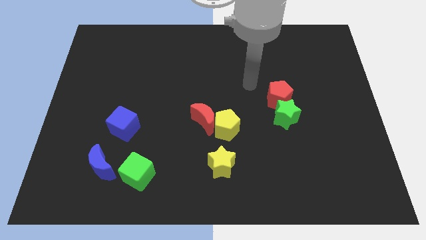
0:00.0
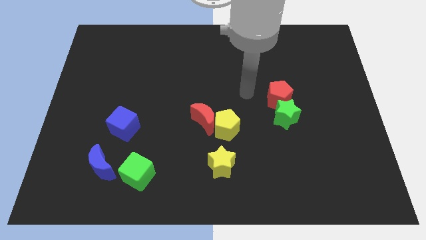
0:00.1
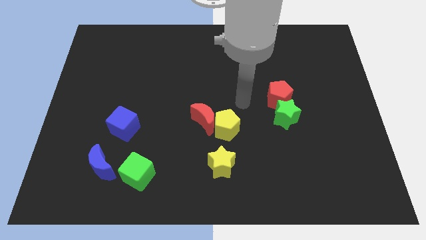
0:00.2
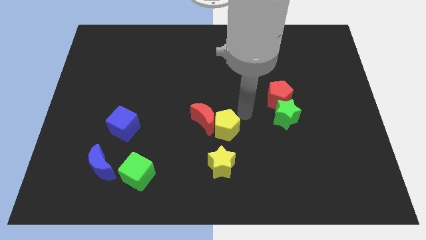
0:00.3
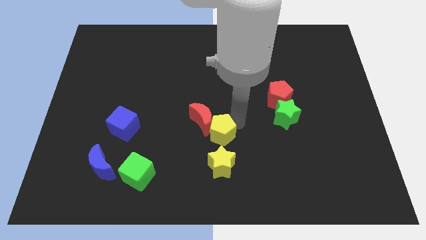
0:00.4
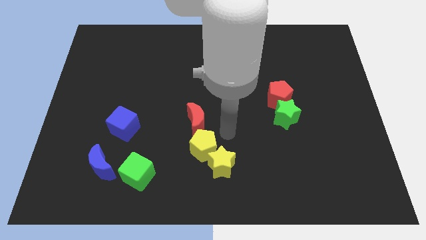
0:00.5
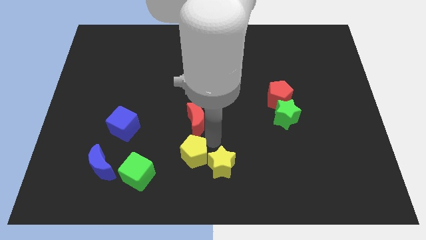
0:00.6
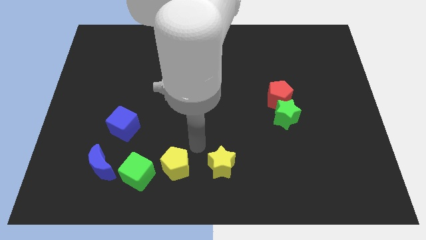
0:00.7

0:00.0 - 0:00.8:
move the red moon away from the yellow pentagon

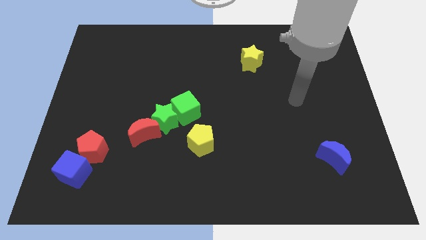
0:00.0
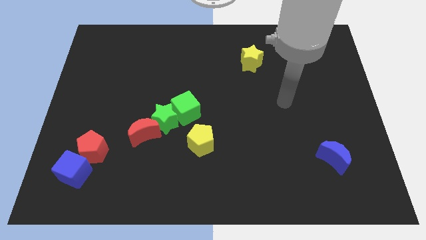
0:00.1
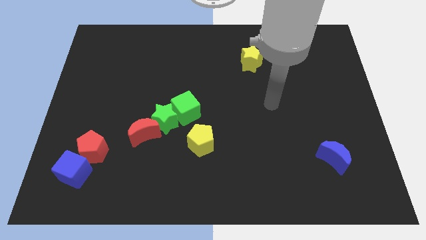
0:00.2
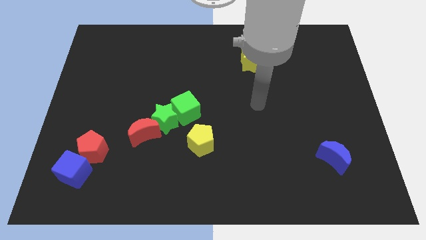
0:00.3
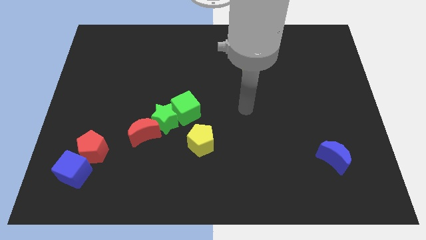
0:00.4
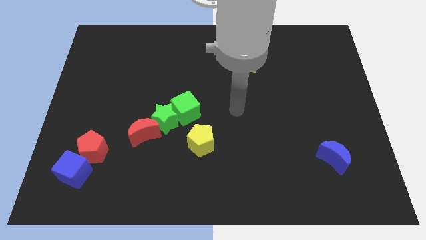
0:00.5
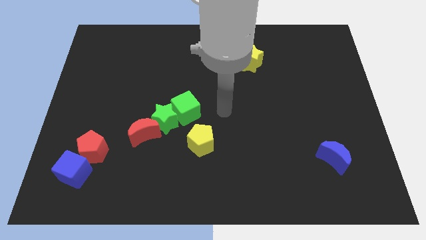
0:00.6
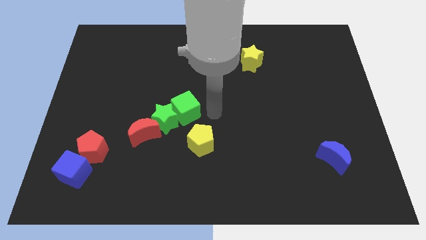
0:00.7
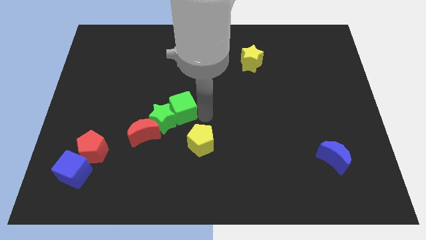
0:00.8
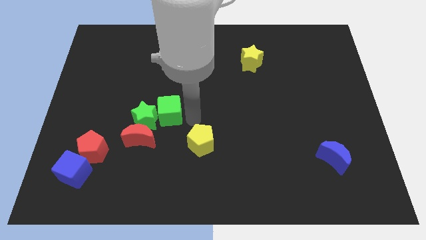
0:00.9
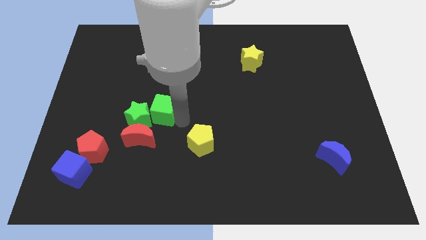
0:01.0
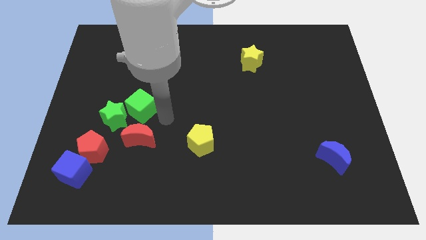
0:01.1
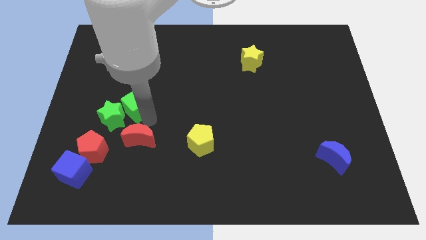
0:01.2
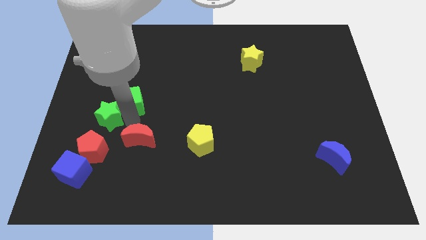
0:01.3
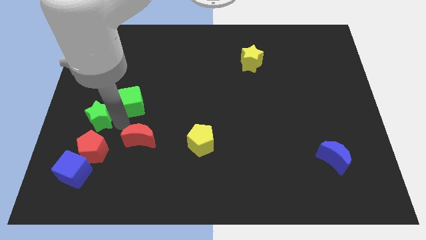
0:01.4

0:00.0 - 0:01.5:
separate the red moon from the green star

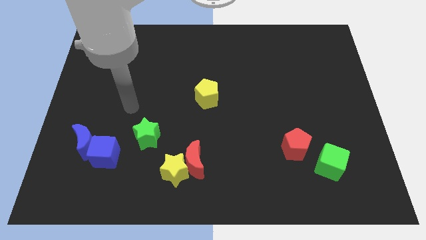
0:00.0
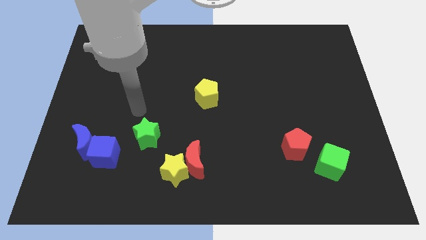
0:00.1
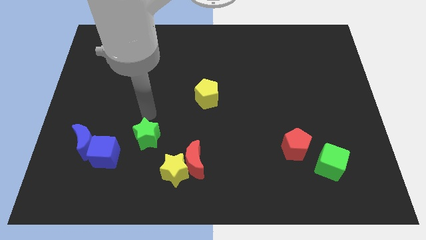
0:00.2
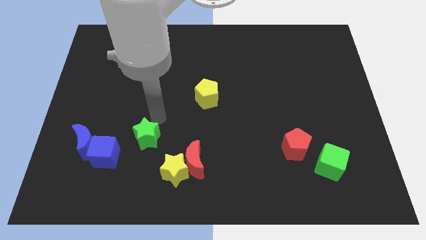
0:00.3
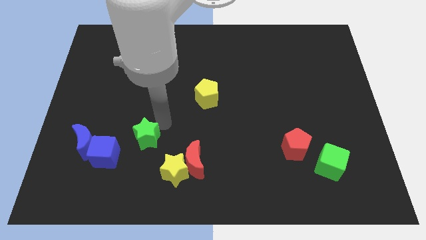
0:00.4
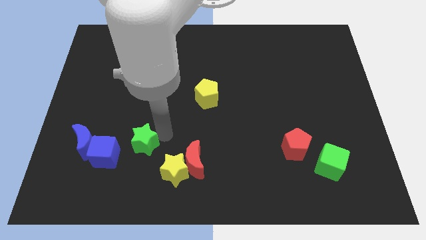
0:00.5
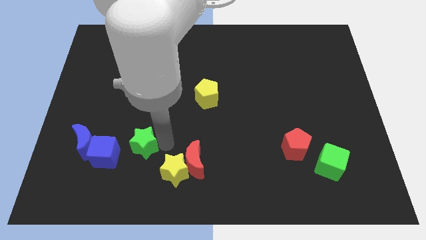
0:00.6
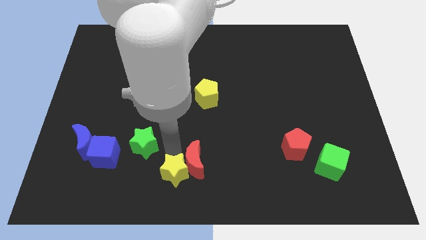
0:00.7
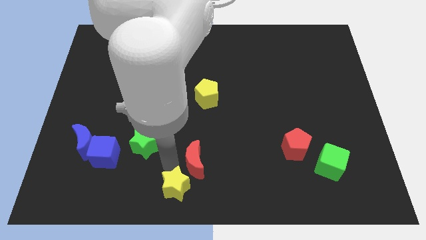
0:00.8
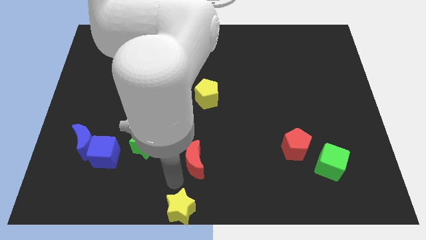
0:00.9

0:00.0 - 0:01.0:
move the red moon away from the yellow star

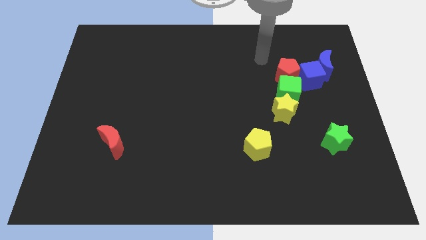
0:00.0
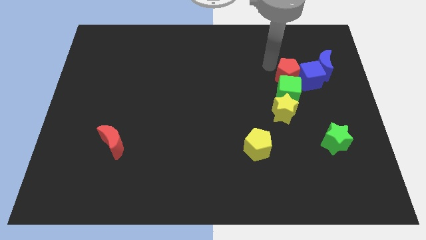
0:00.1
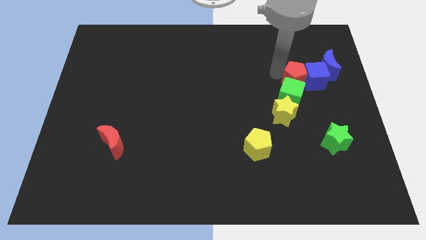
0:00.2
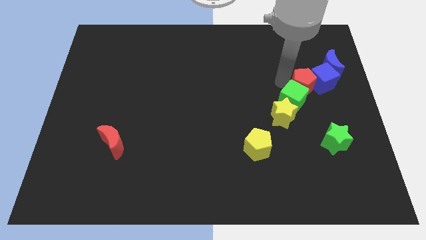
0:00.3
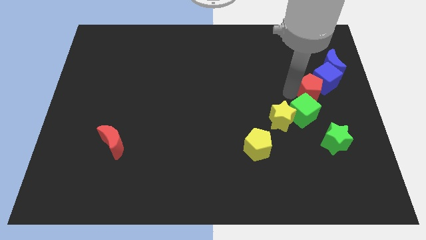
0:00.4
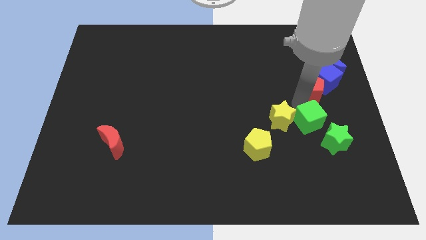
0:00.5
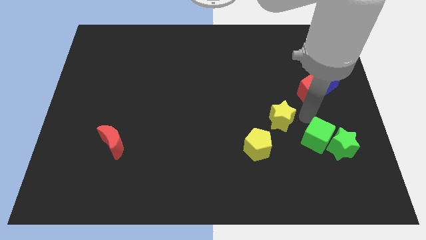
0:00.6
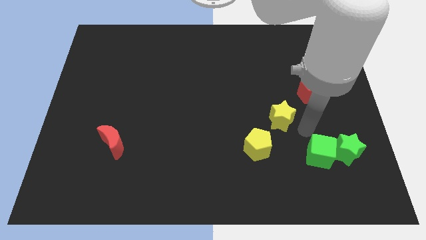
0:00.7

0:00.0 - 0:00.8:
separate the yellow star from the green cube

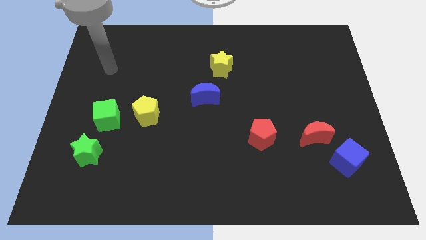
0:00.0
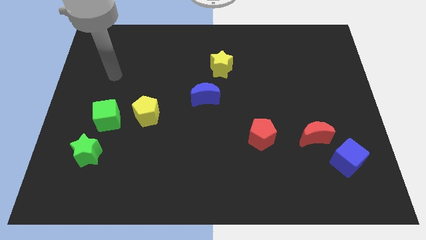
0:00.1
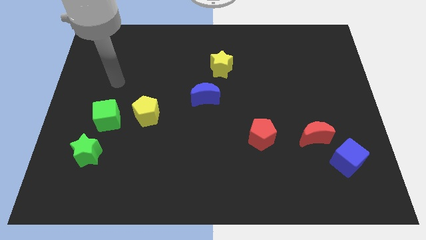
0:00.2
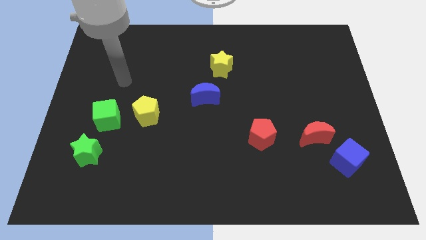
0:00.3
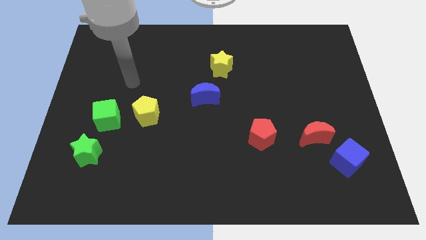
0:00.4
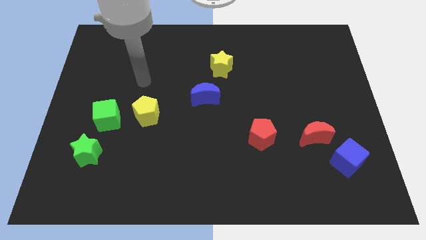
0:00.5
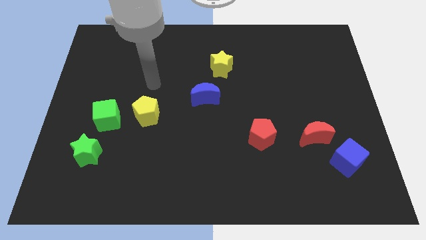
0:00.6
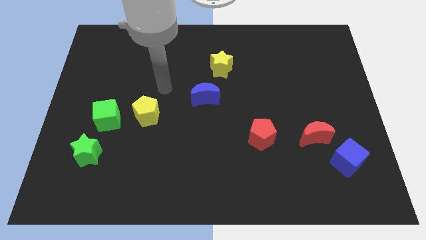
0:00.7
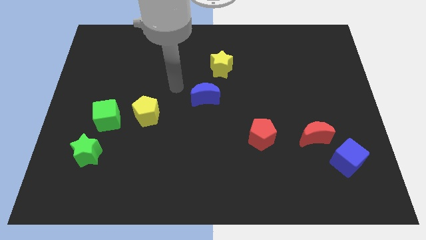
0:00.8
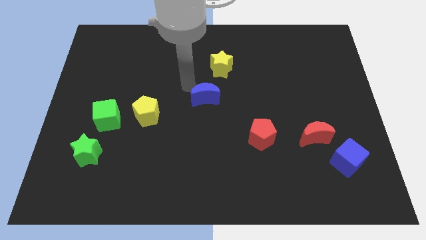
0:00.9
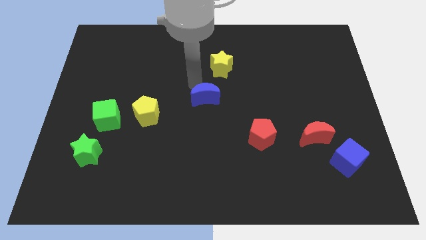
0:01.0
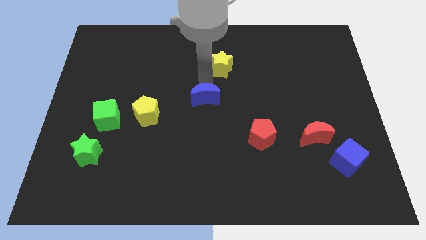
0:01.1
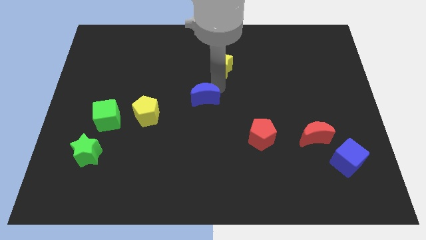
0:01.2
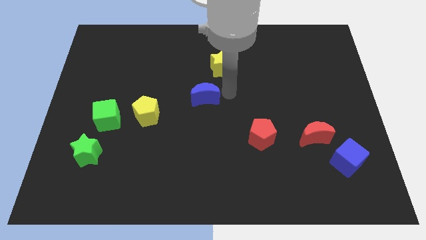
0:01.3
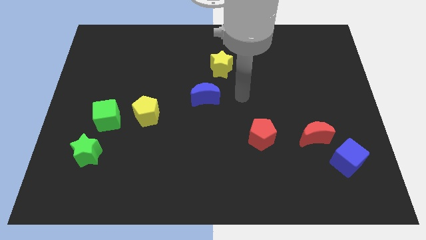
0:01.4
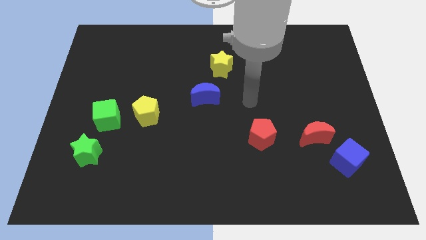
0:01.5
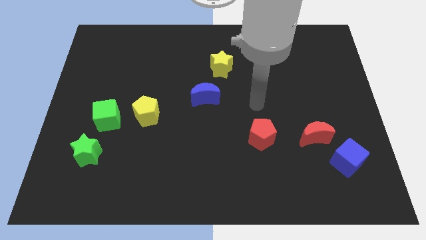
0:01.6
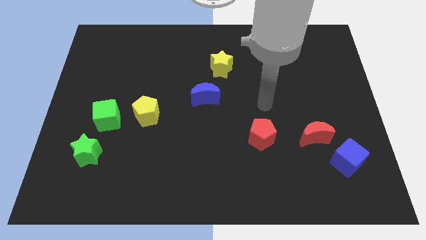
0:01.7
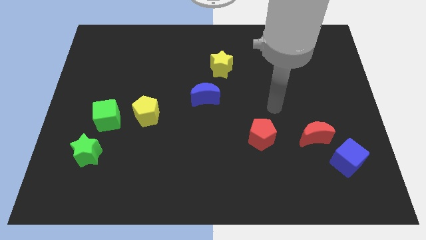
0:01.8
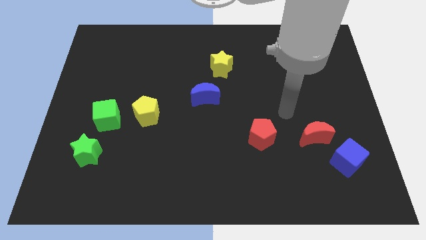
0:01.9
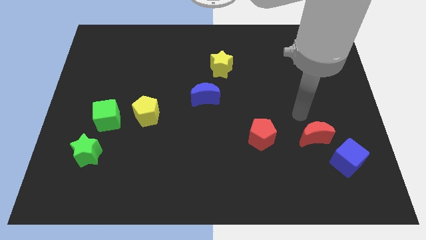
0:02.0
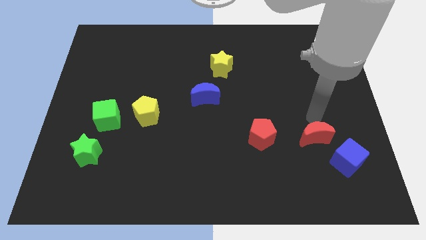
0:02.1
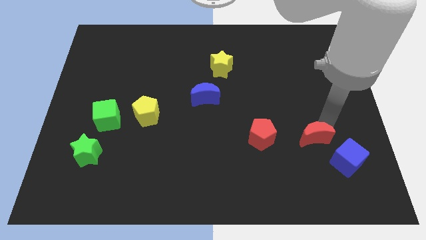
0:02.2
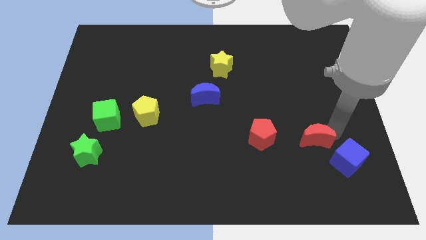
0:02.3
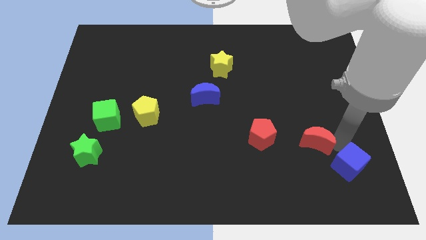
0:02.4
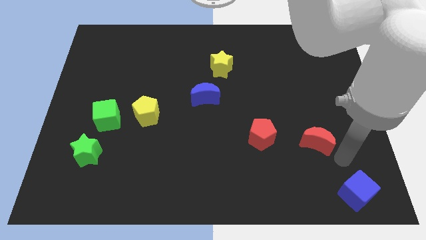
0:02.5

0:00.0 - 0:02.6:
separate the red moon from the blue cube

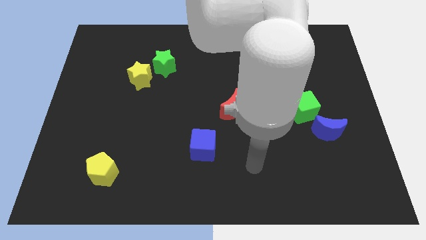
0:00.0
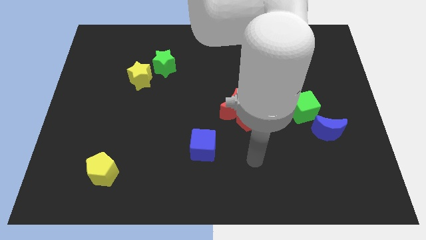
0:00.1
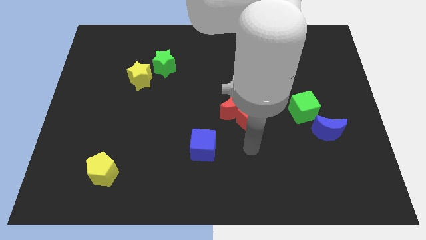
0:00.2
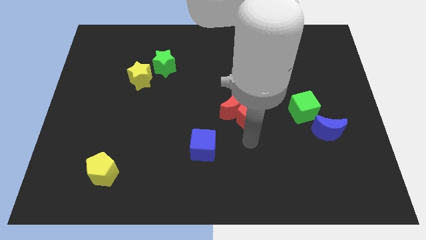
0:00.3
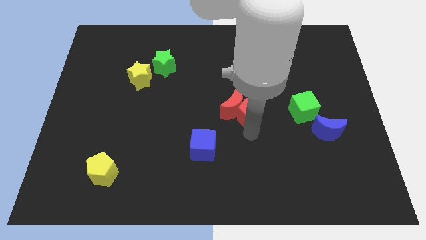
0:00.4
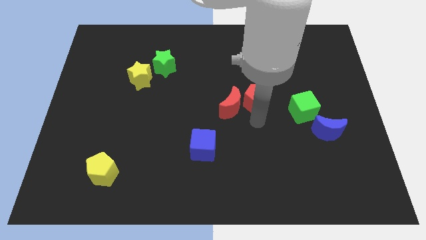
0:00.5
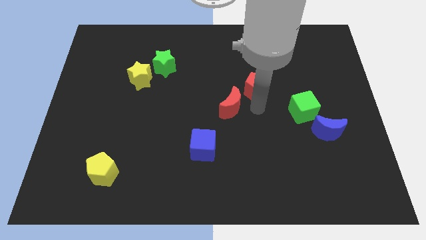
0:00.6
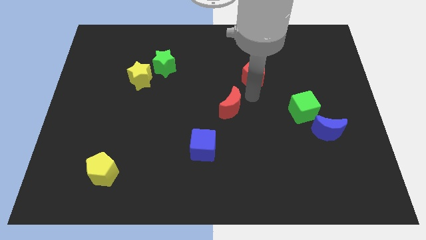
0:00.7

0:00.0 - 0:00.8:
pull the red moon apart from the red pentagon

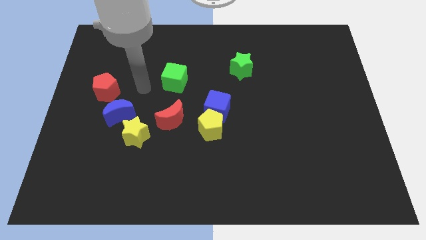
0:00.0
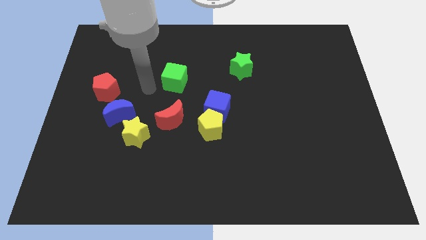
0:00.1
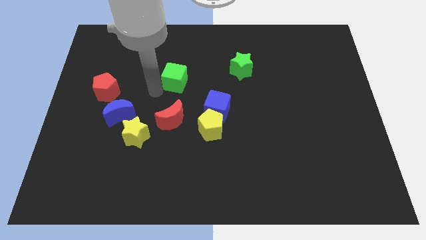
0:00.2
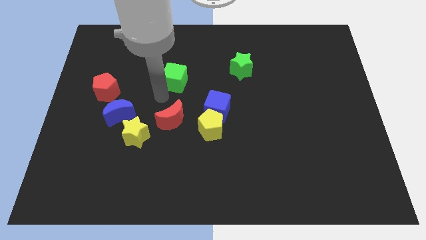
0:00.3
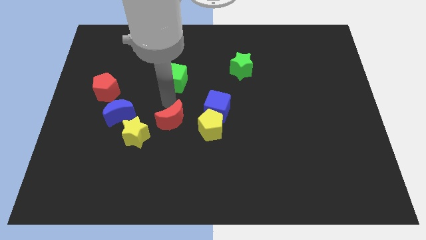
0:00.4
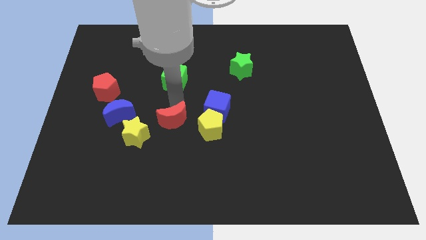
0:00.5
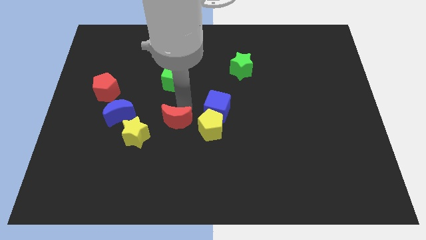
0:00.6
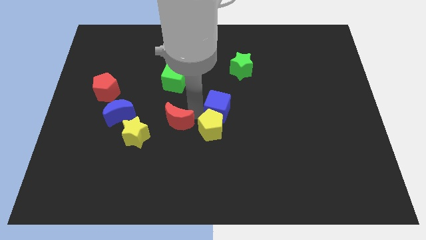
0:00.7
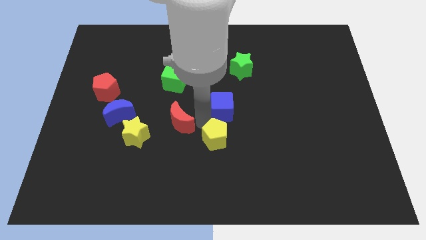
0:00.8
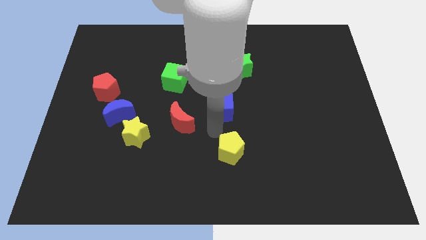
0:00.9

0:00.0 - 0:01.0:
separate the blue cube from the yellow pentagon

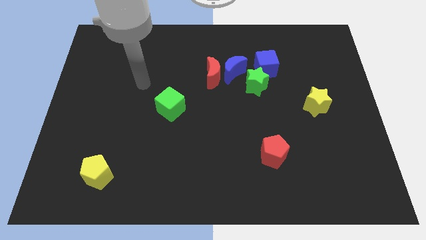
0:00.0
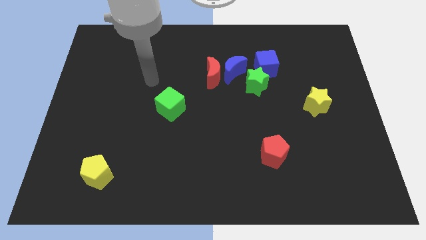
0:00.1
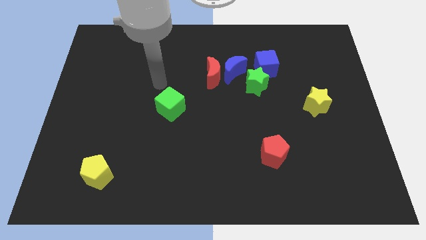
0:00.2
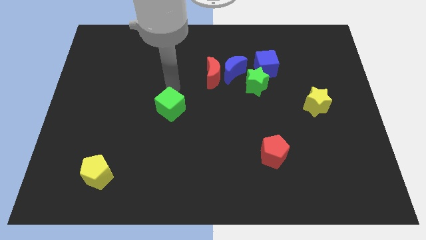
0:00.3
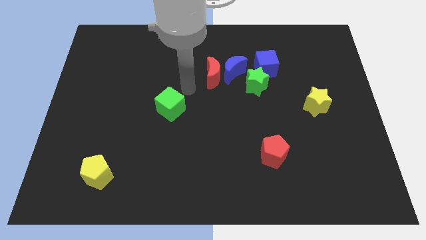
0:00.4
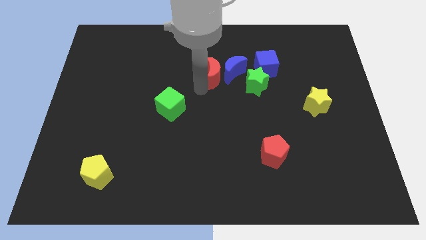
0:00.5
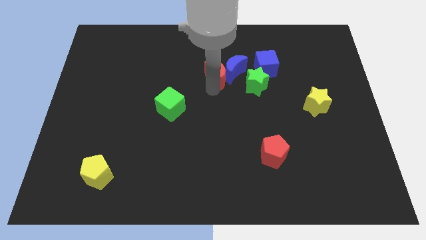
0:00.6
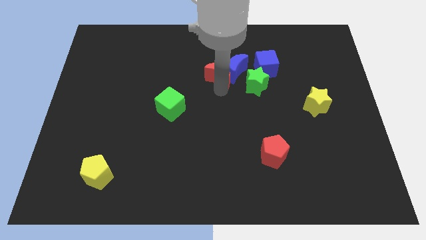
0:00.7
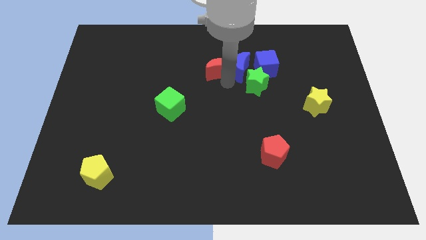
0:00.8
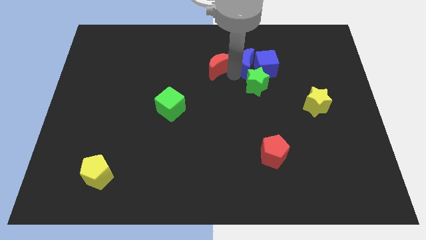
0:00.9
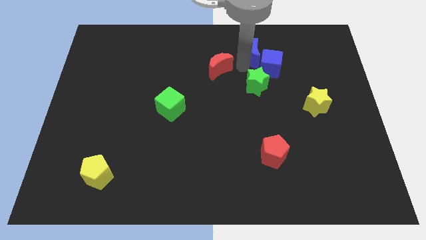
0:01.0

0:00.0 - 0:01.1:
separate the red moon from the blue moon
